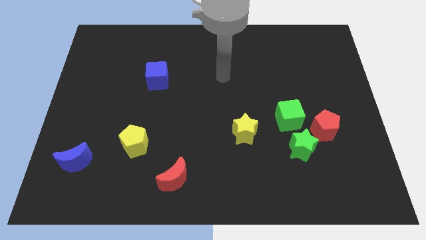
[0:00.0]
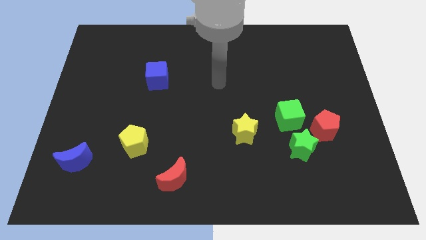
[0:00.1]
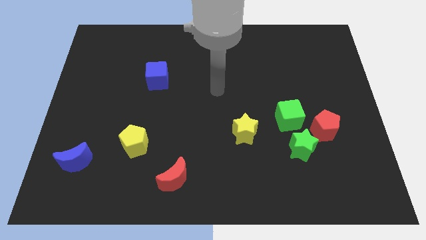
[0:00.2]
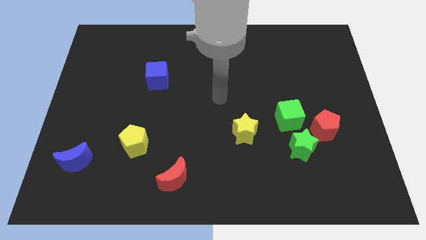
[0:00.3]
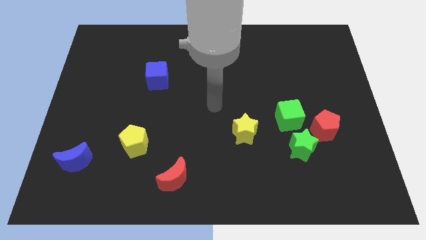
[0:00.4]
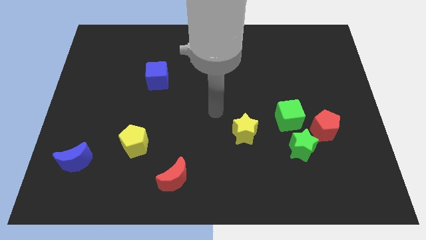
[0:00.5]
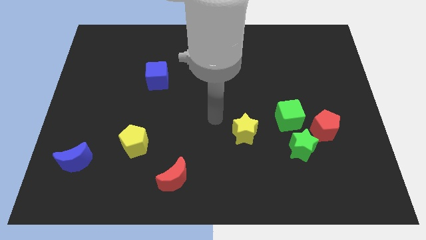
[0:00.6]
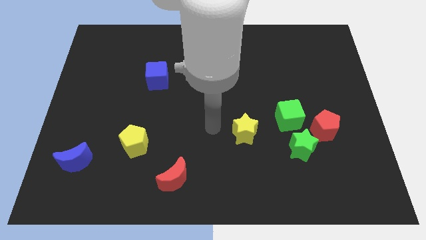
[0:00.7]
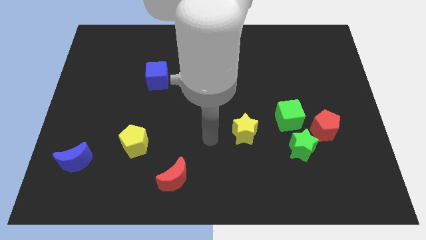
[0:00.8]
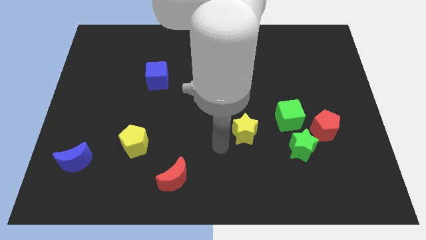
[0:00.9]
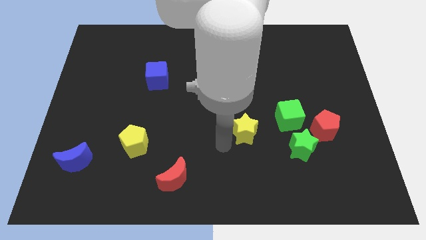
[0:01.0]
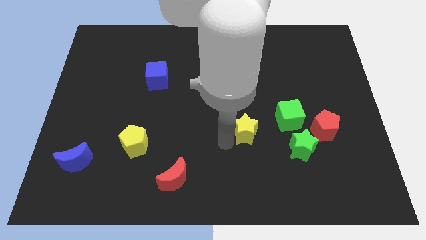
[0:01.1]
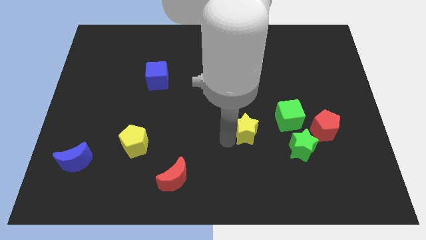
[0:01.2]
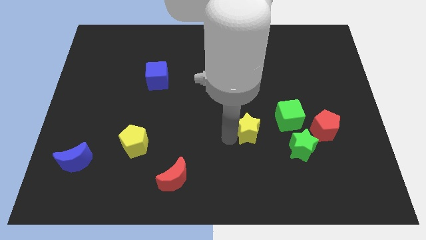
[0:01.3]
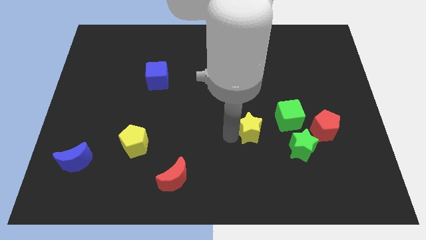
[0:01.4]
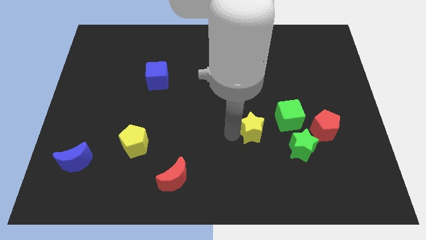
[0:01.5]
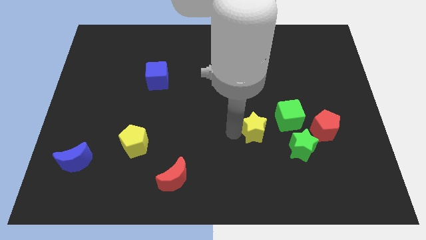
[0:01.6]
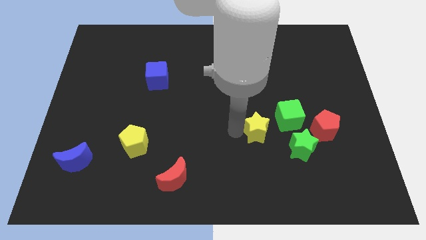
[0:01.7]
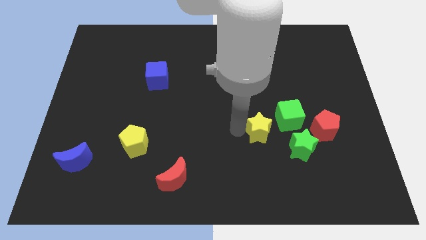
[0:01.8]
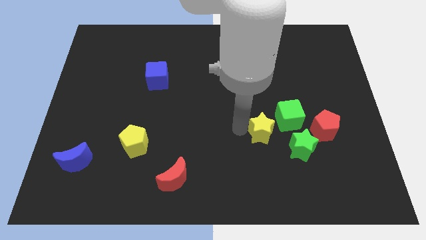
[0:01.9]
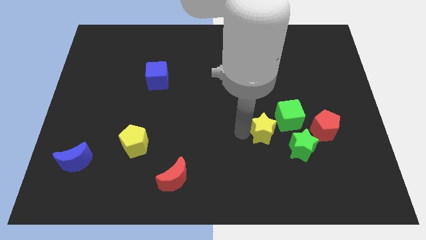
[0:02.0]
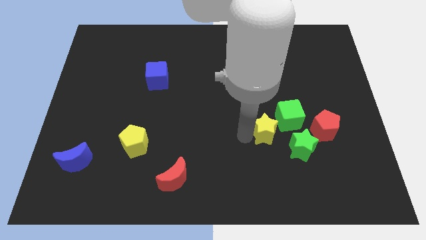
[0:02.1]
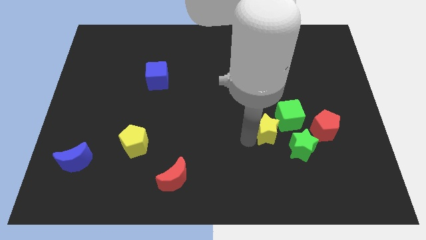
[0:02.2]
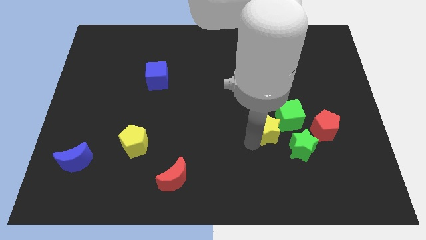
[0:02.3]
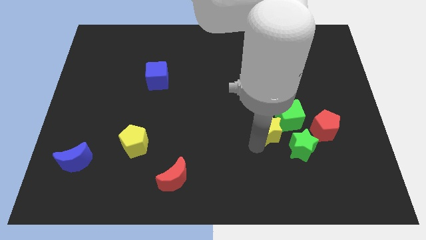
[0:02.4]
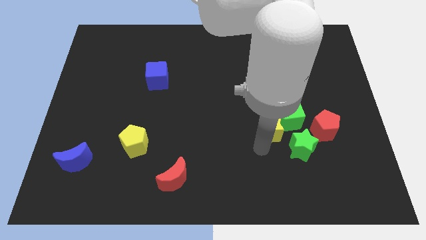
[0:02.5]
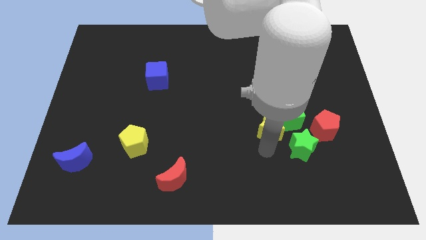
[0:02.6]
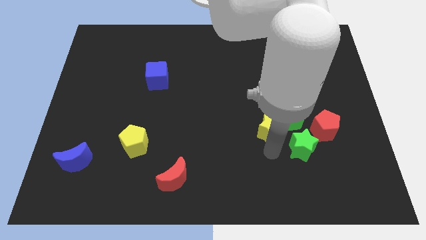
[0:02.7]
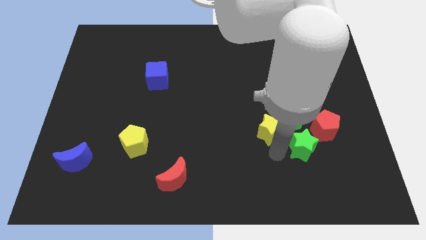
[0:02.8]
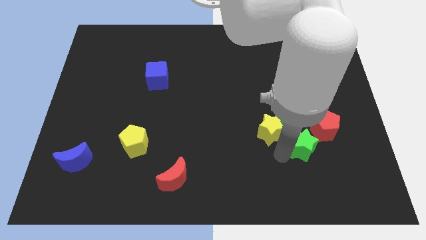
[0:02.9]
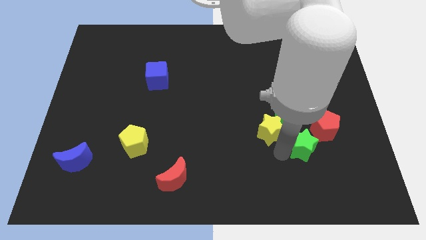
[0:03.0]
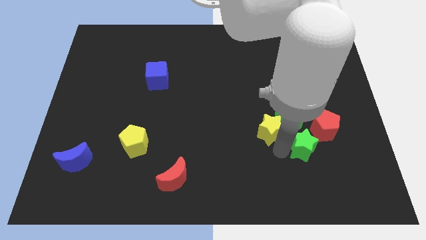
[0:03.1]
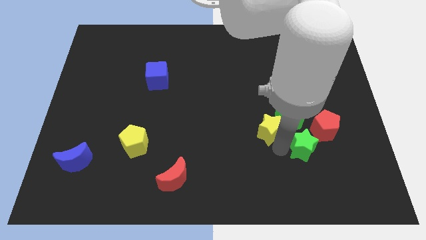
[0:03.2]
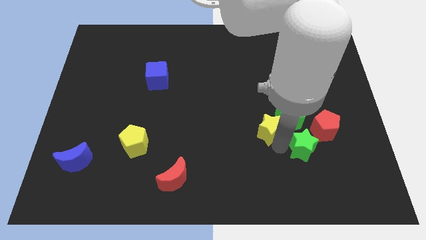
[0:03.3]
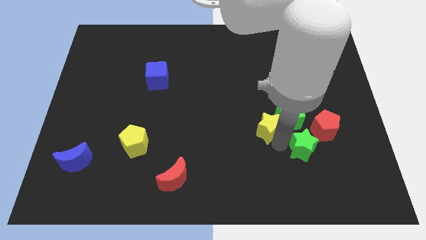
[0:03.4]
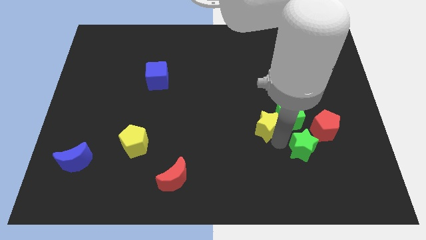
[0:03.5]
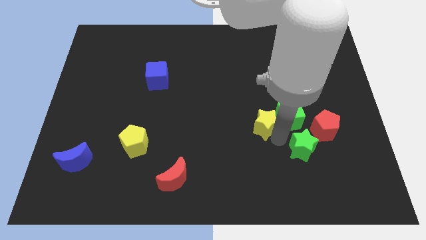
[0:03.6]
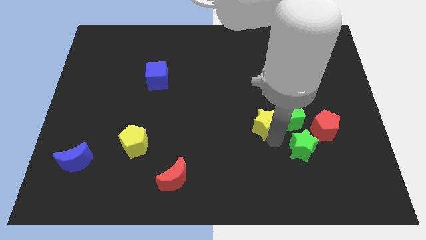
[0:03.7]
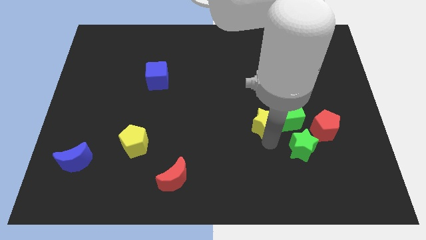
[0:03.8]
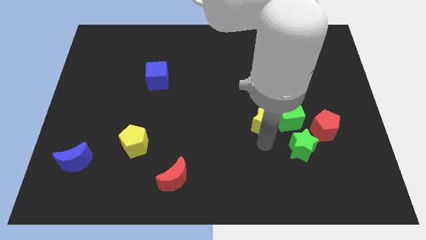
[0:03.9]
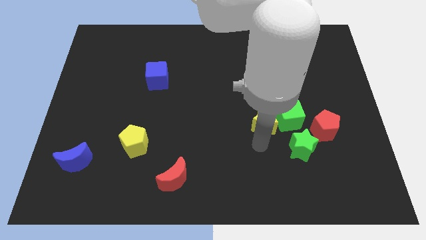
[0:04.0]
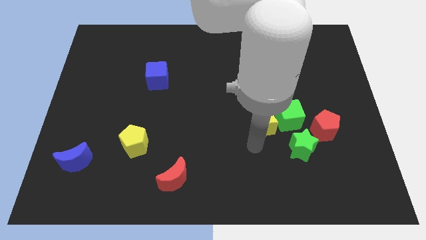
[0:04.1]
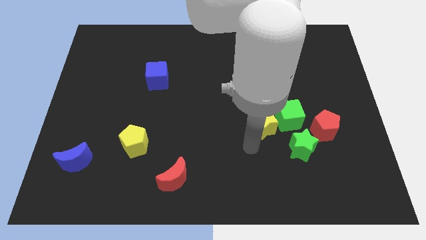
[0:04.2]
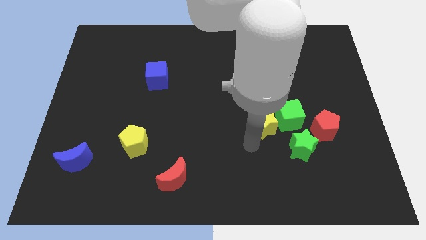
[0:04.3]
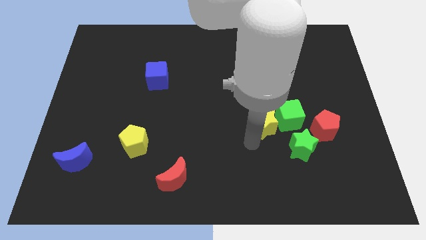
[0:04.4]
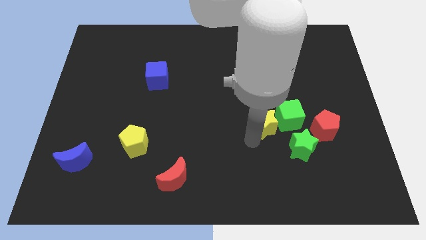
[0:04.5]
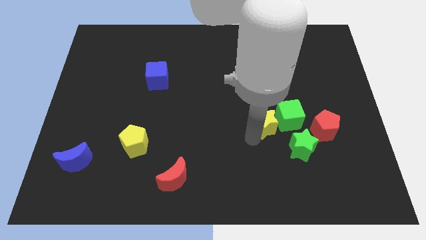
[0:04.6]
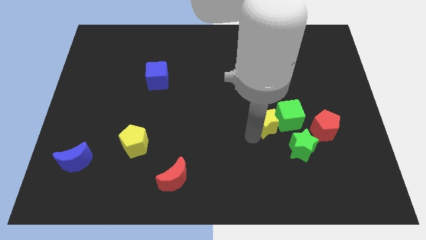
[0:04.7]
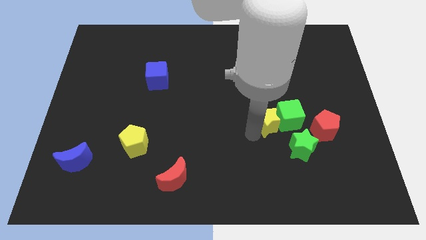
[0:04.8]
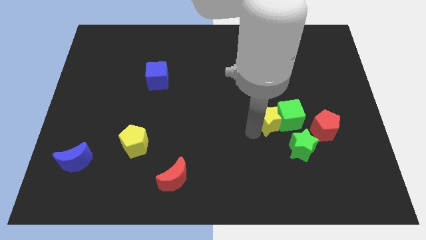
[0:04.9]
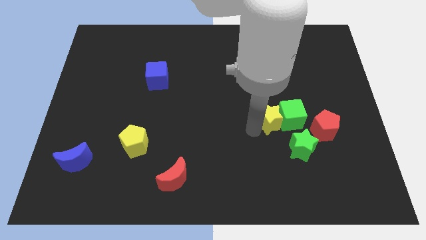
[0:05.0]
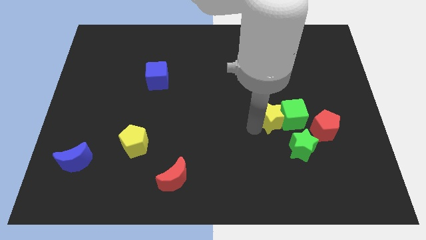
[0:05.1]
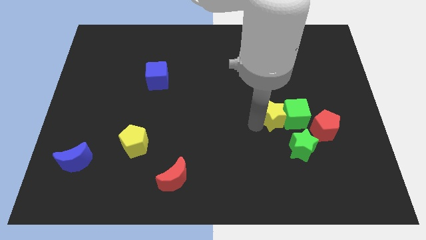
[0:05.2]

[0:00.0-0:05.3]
slide the yellow star diagonally upwards and right a little

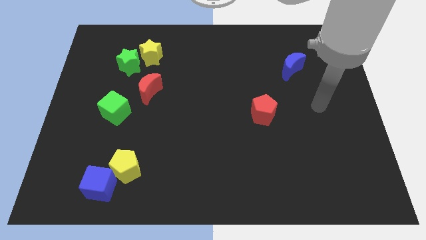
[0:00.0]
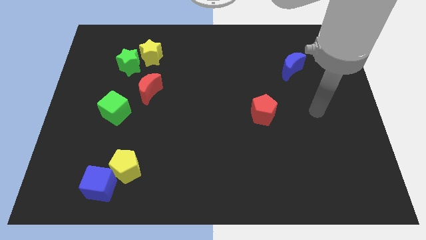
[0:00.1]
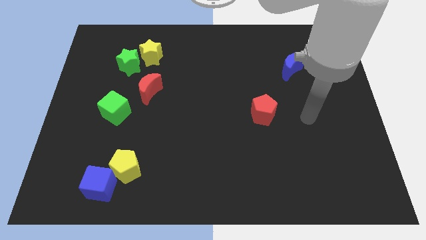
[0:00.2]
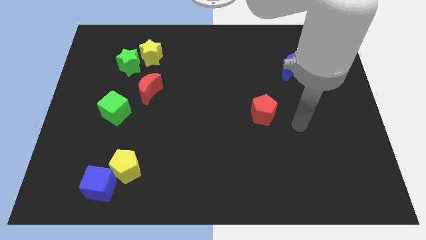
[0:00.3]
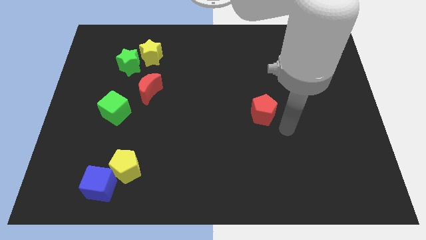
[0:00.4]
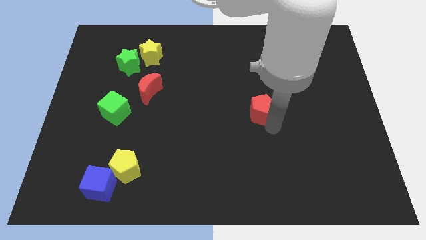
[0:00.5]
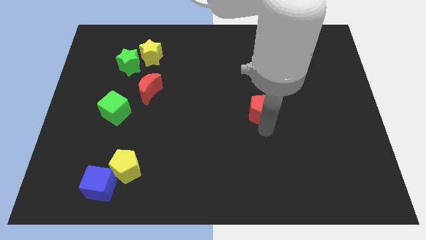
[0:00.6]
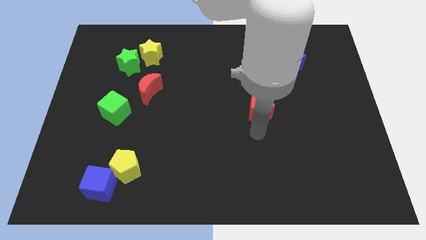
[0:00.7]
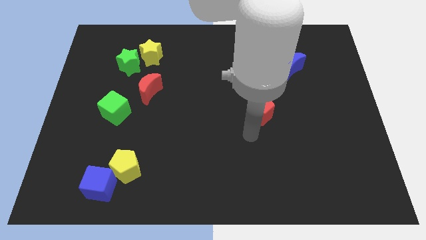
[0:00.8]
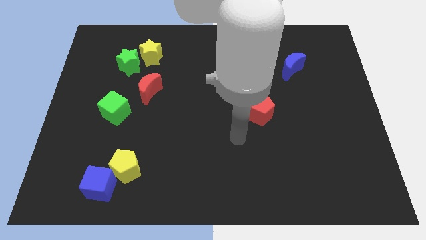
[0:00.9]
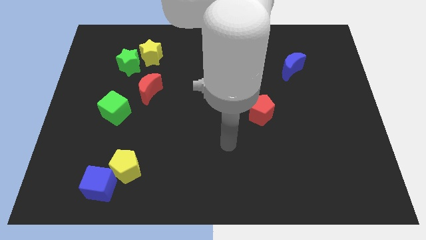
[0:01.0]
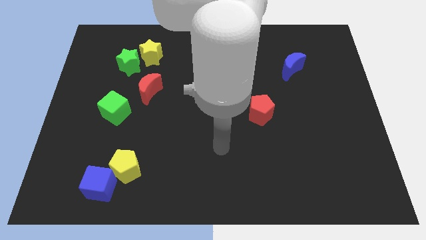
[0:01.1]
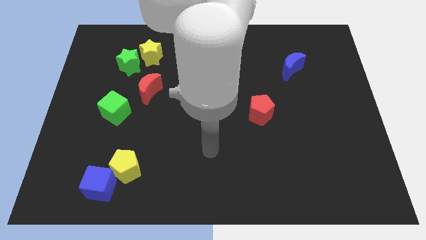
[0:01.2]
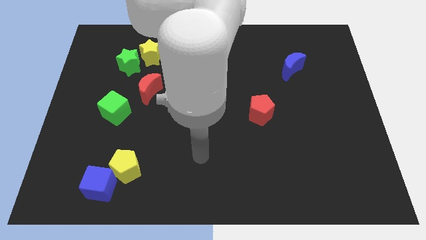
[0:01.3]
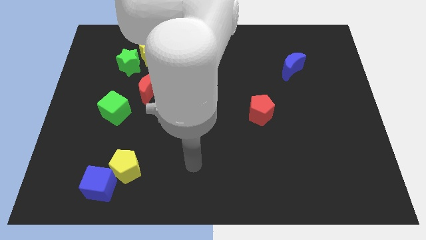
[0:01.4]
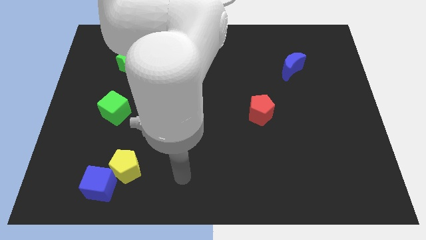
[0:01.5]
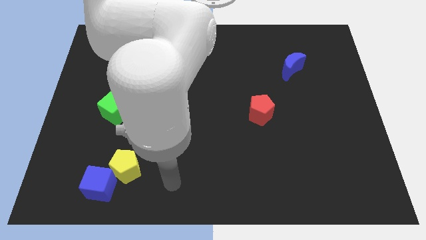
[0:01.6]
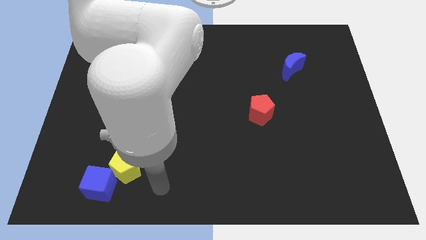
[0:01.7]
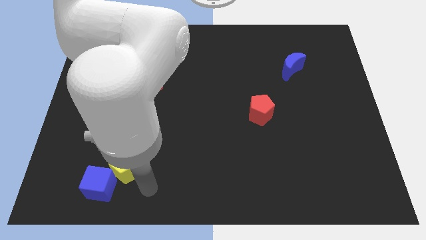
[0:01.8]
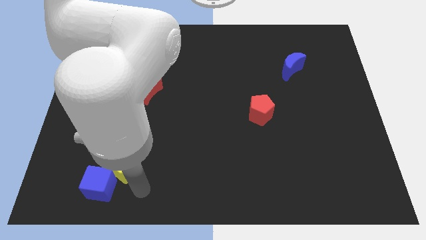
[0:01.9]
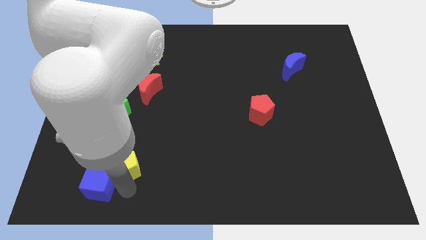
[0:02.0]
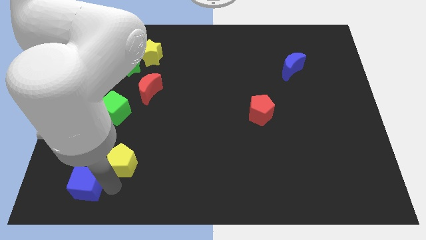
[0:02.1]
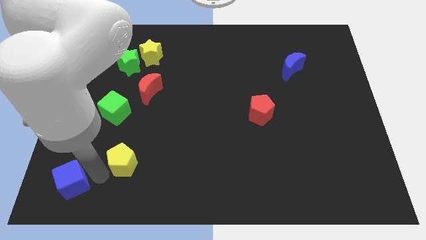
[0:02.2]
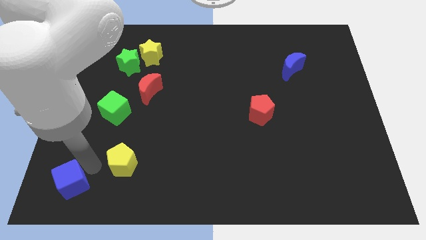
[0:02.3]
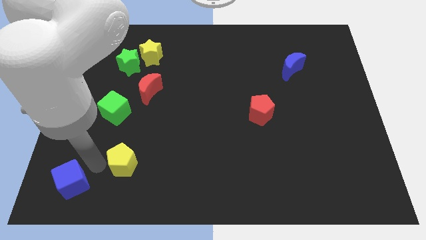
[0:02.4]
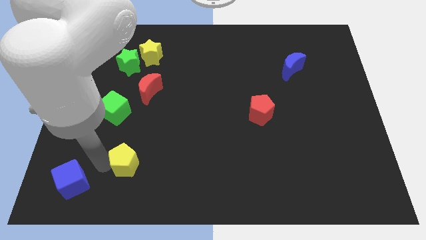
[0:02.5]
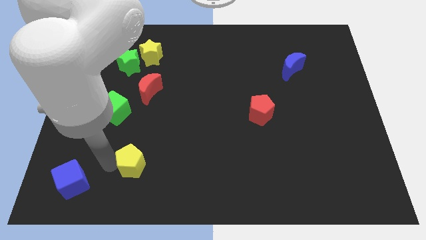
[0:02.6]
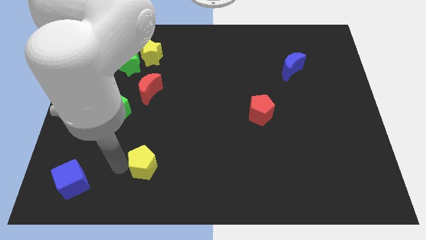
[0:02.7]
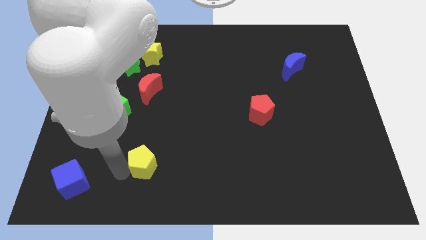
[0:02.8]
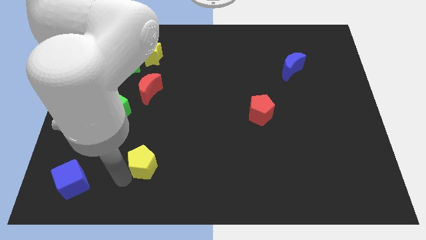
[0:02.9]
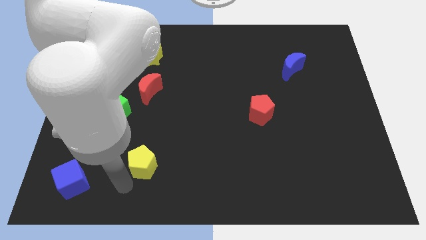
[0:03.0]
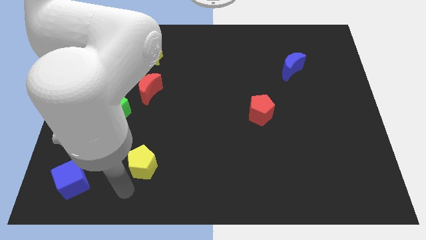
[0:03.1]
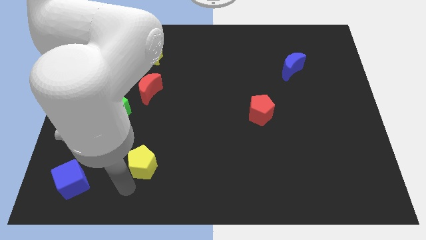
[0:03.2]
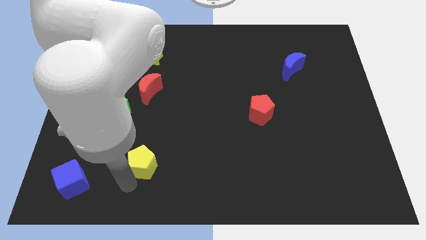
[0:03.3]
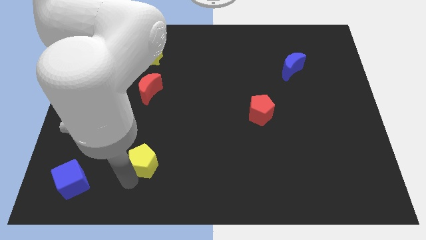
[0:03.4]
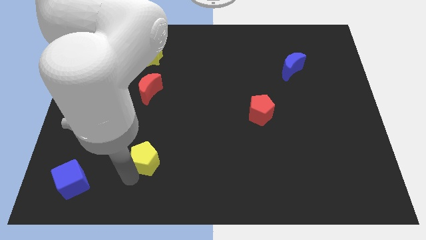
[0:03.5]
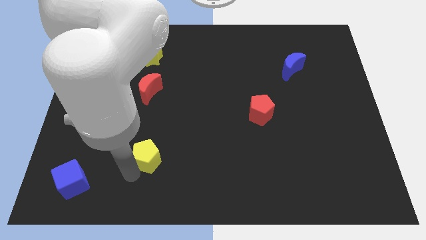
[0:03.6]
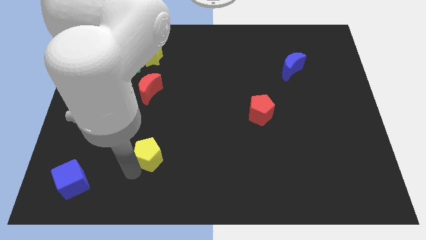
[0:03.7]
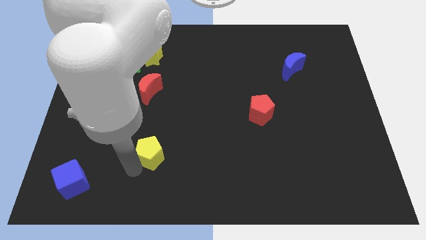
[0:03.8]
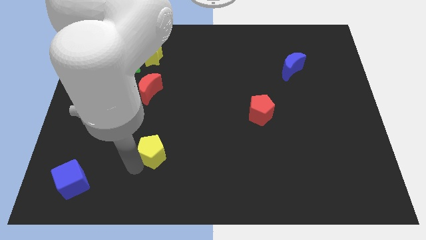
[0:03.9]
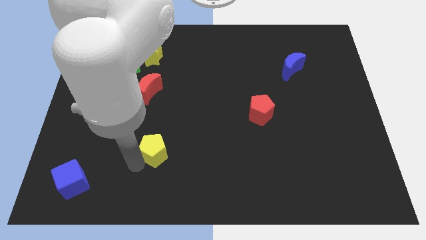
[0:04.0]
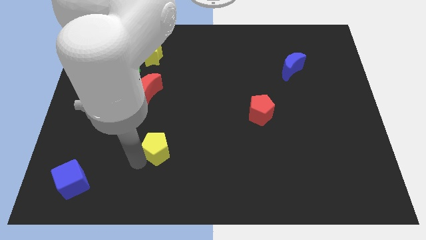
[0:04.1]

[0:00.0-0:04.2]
slide the yellow pentagon a bit diagonally up and right
